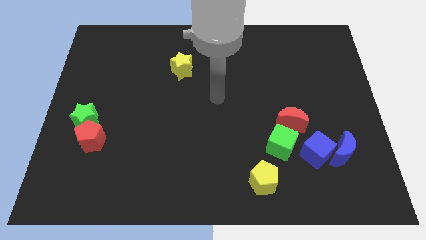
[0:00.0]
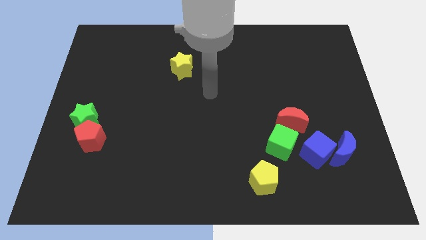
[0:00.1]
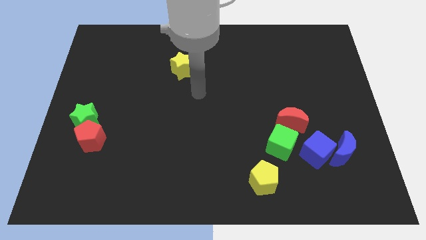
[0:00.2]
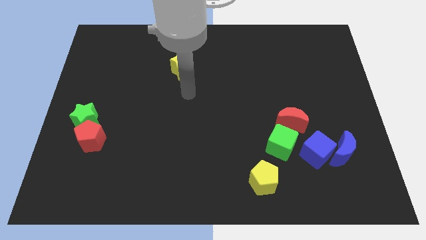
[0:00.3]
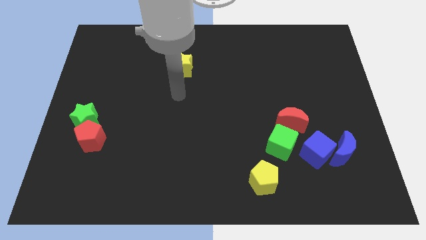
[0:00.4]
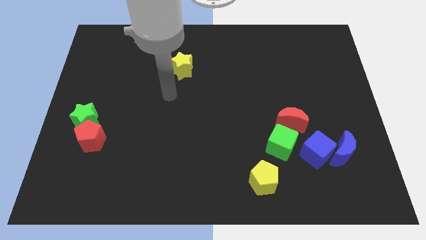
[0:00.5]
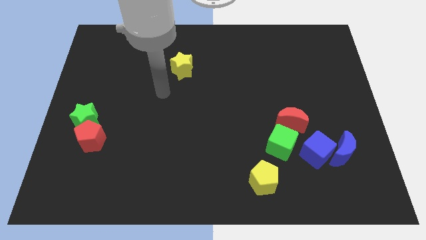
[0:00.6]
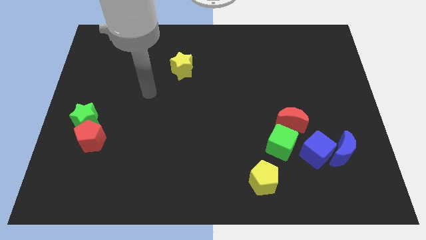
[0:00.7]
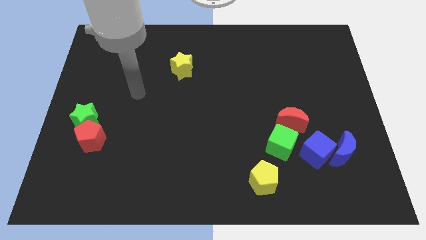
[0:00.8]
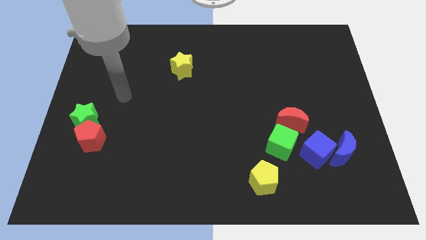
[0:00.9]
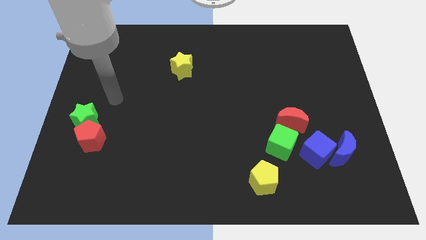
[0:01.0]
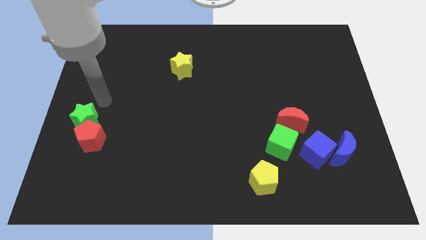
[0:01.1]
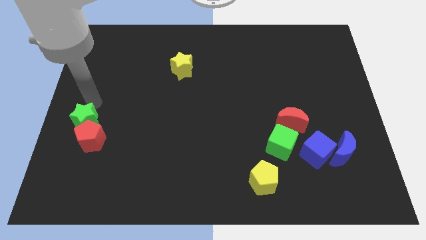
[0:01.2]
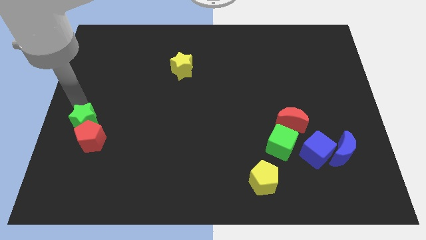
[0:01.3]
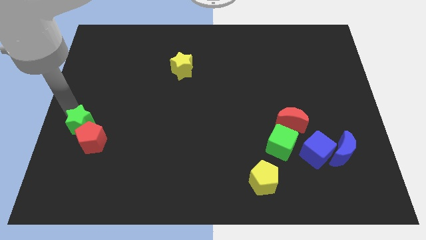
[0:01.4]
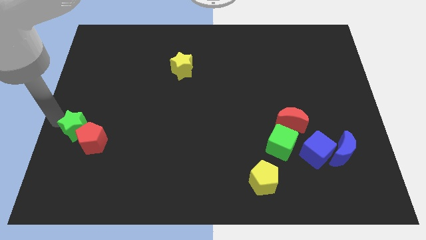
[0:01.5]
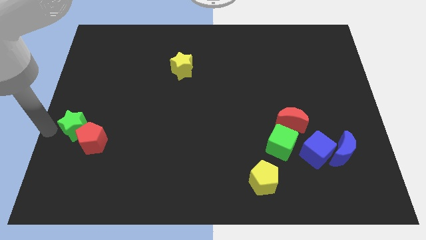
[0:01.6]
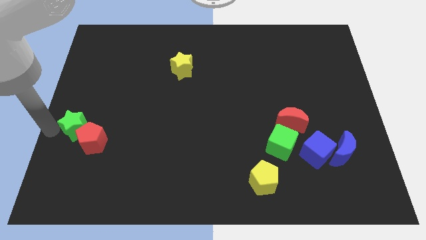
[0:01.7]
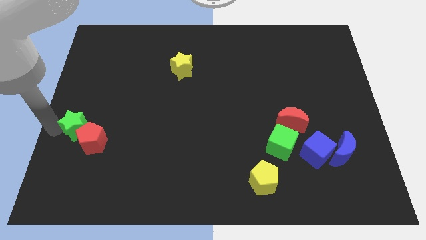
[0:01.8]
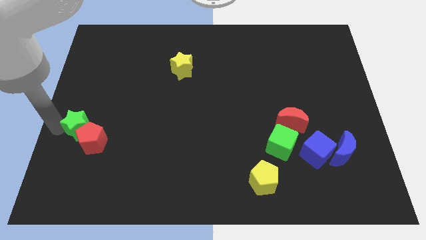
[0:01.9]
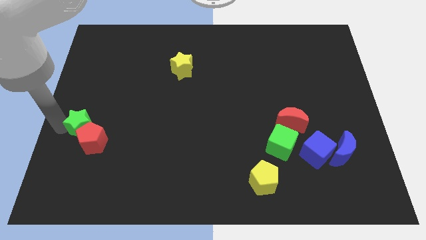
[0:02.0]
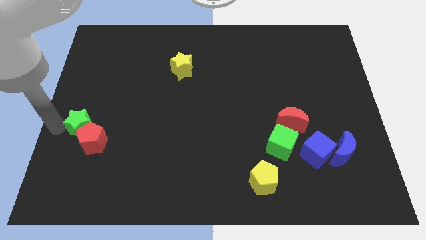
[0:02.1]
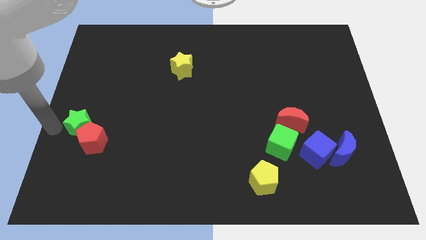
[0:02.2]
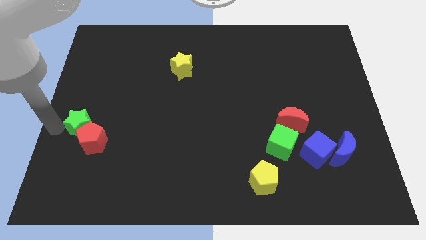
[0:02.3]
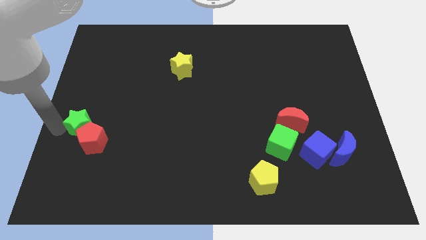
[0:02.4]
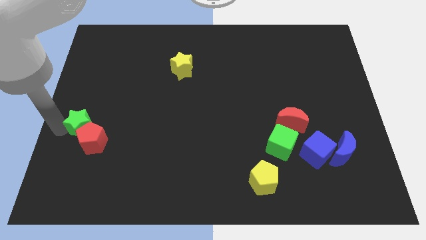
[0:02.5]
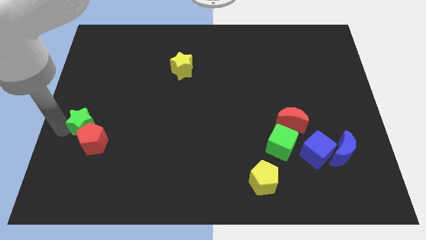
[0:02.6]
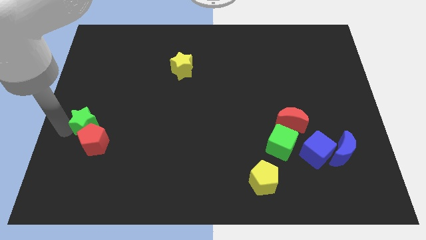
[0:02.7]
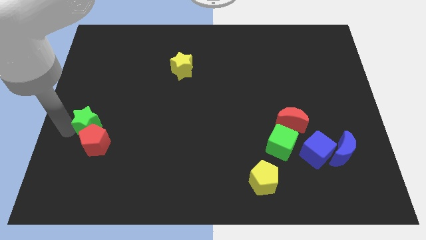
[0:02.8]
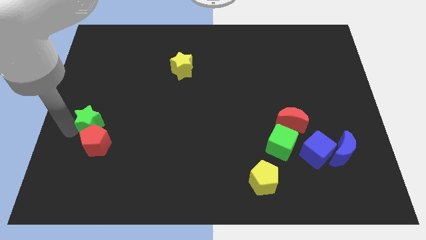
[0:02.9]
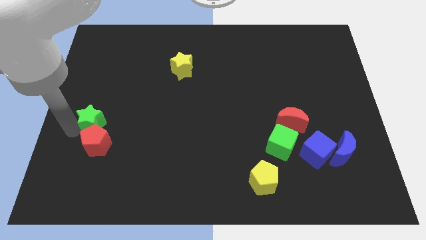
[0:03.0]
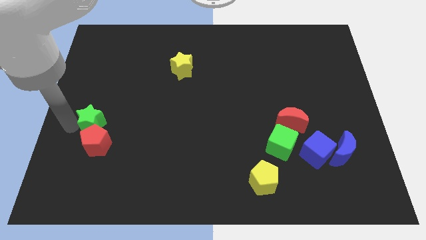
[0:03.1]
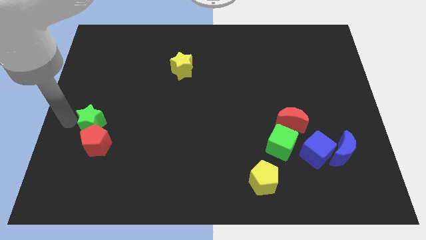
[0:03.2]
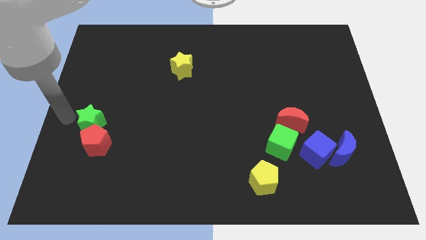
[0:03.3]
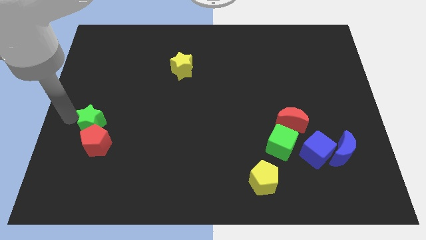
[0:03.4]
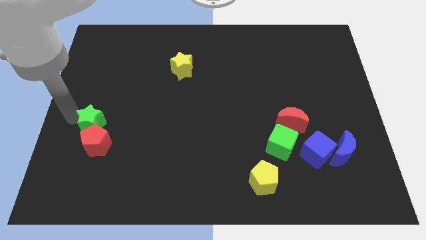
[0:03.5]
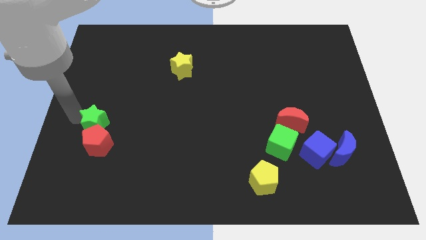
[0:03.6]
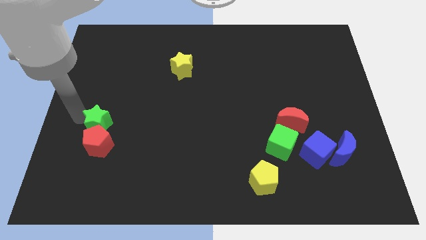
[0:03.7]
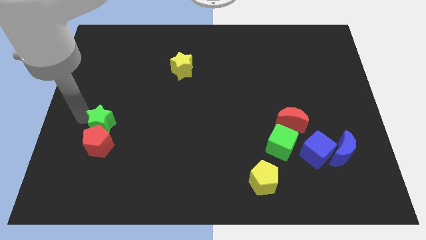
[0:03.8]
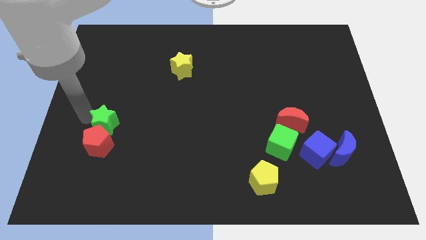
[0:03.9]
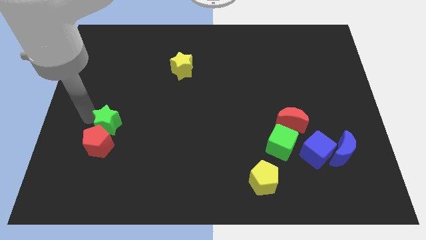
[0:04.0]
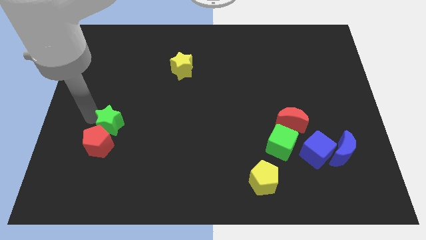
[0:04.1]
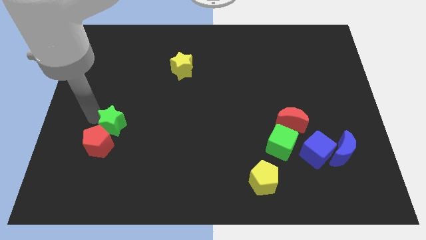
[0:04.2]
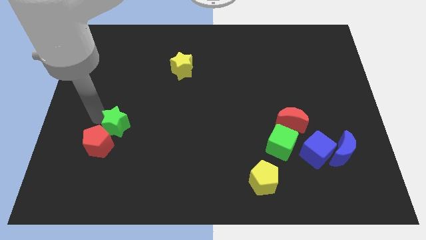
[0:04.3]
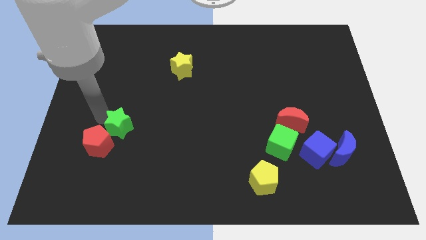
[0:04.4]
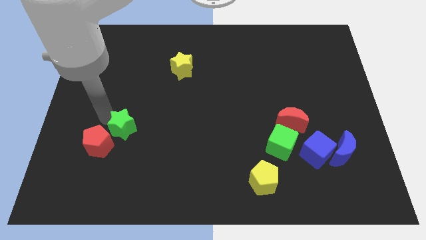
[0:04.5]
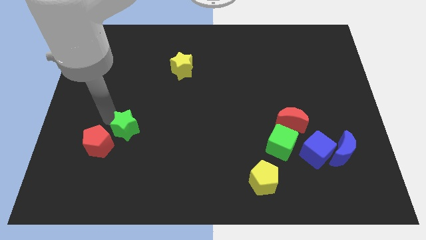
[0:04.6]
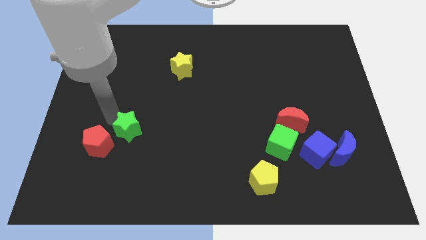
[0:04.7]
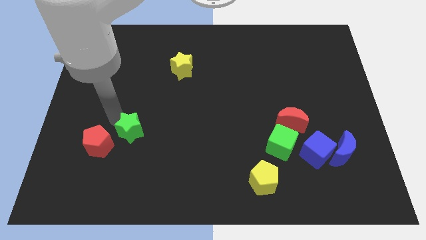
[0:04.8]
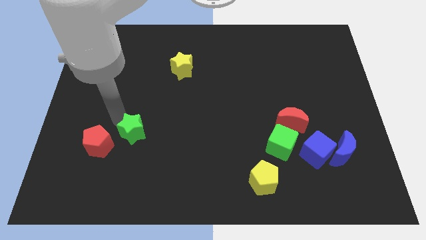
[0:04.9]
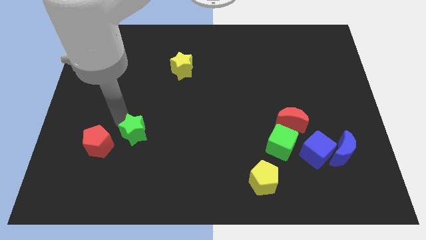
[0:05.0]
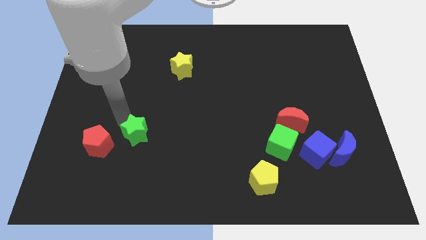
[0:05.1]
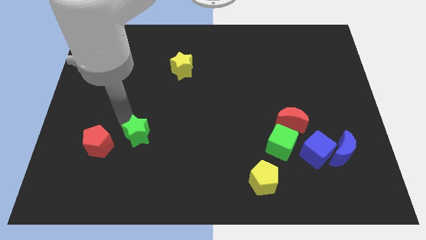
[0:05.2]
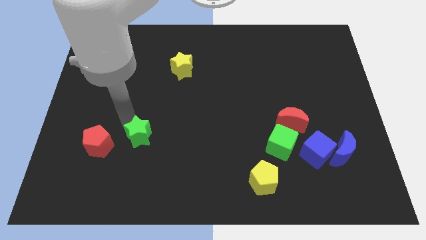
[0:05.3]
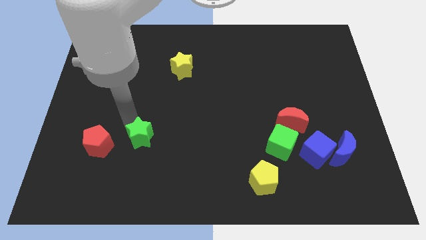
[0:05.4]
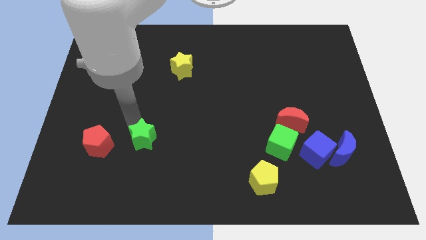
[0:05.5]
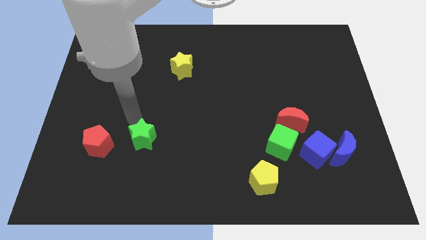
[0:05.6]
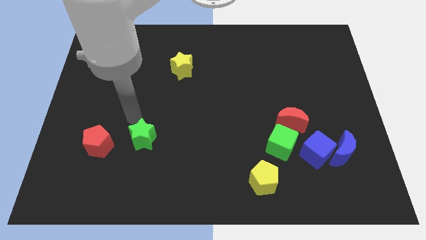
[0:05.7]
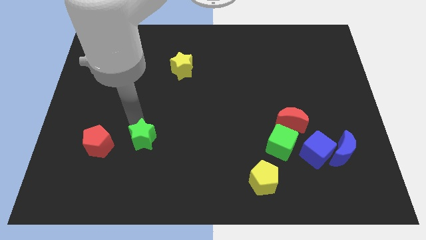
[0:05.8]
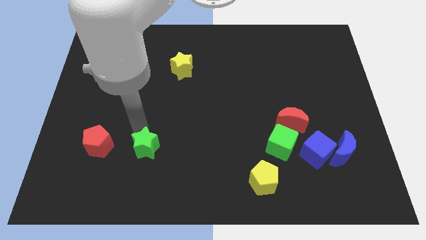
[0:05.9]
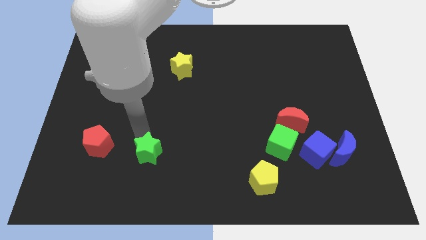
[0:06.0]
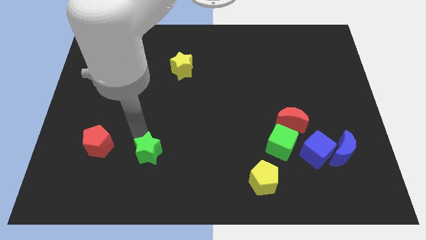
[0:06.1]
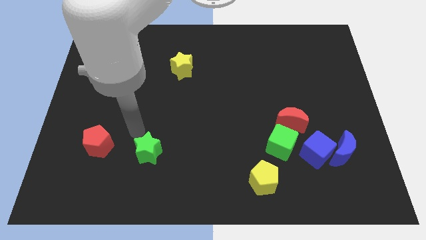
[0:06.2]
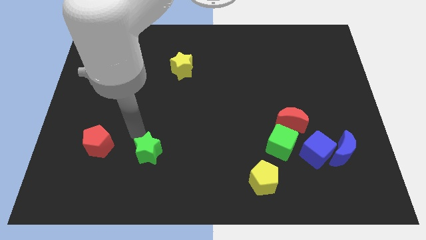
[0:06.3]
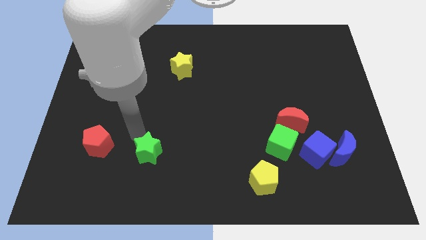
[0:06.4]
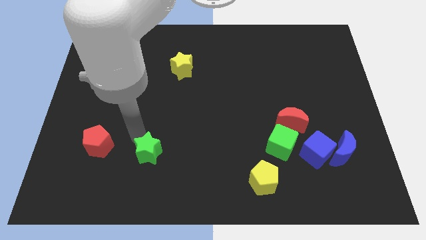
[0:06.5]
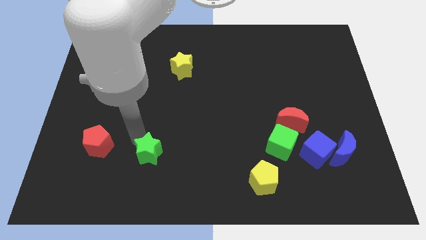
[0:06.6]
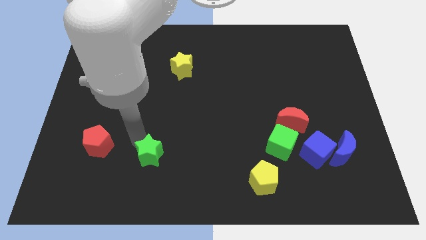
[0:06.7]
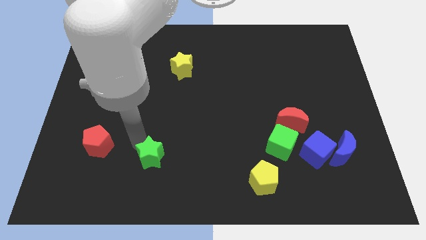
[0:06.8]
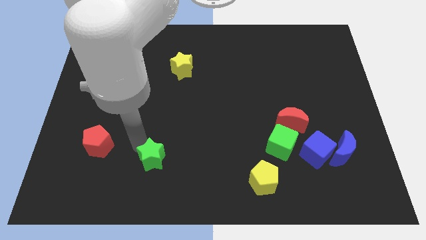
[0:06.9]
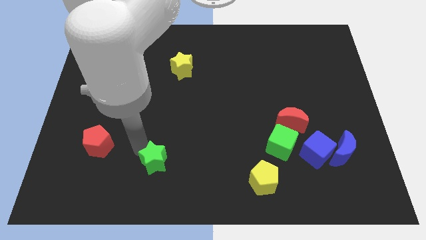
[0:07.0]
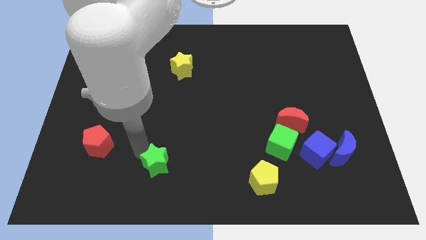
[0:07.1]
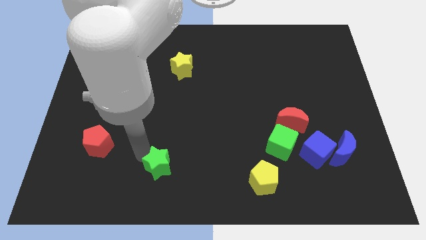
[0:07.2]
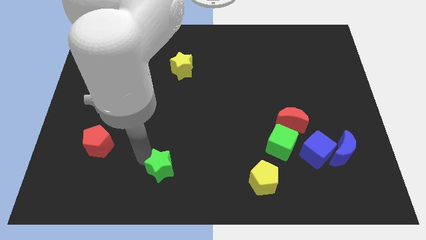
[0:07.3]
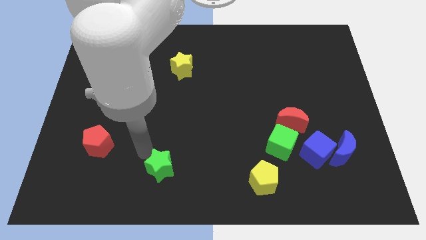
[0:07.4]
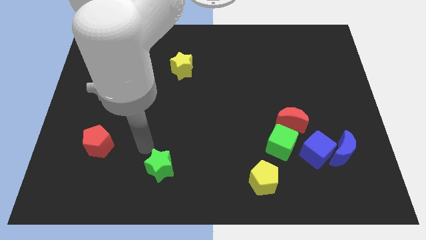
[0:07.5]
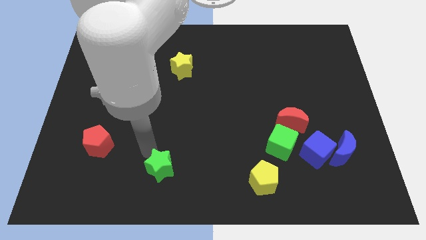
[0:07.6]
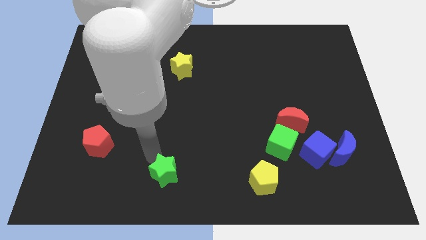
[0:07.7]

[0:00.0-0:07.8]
slide the green star to the bottom

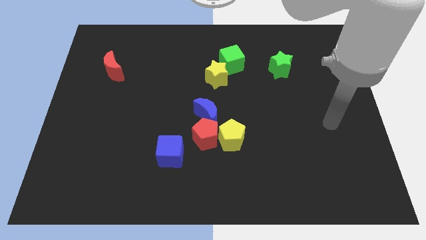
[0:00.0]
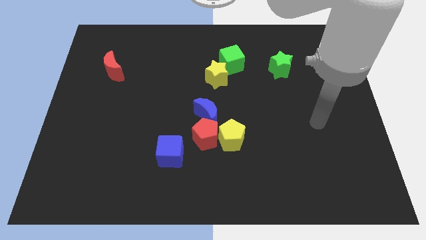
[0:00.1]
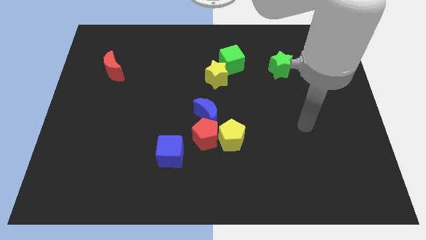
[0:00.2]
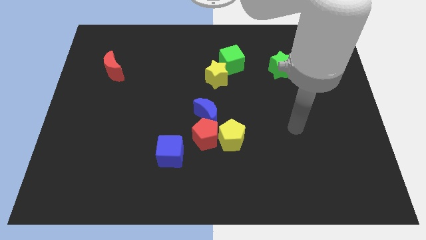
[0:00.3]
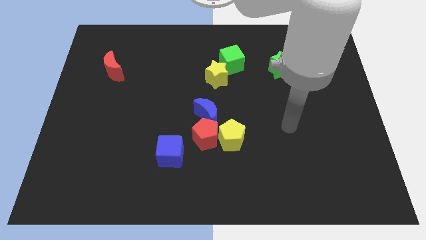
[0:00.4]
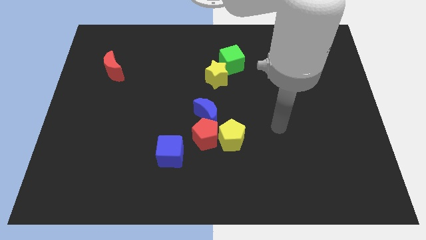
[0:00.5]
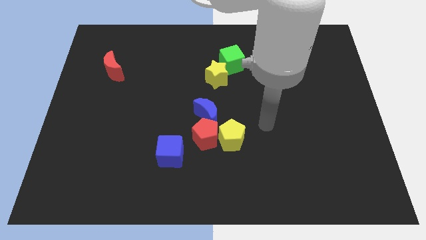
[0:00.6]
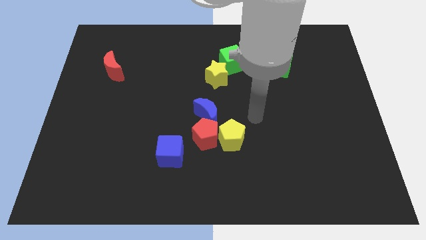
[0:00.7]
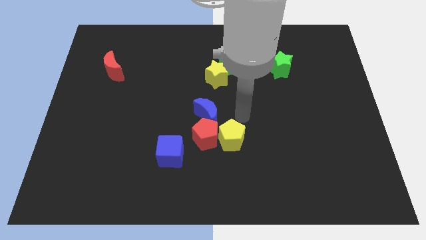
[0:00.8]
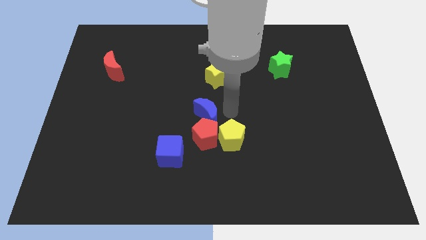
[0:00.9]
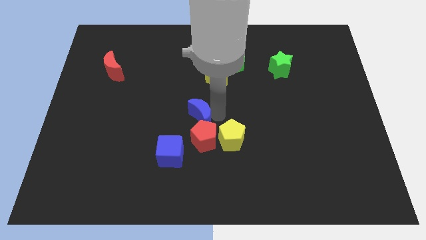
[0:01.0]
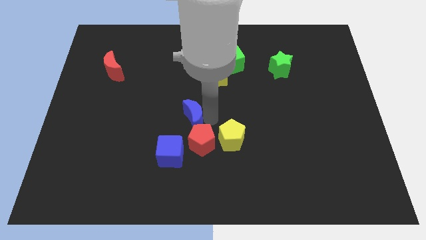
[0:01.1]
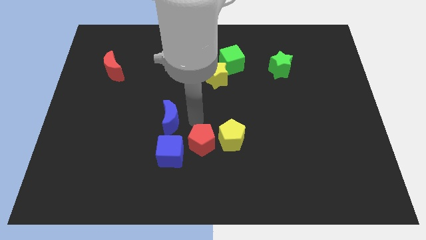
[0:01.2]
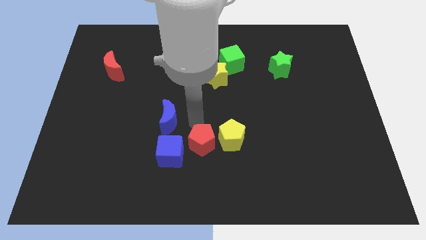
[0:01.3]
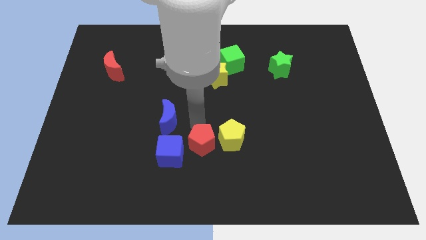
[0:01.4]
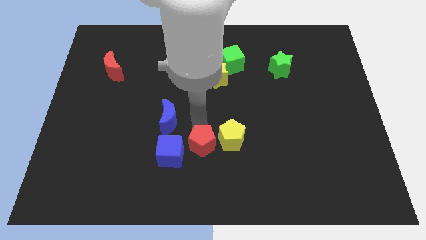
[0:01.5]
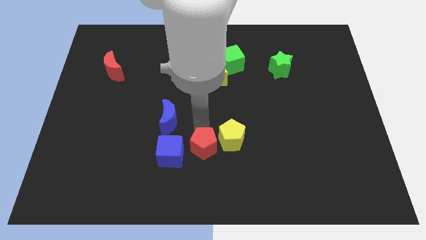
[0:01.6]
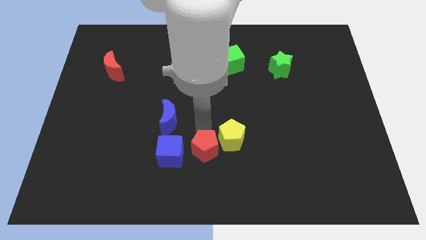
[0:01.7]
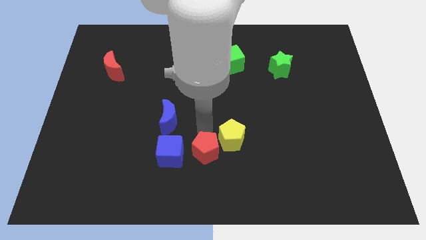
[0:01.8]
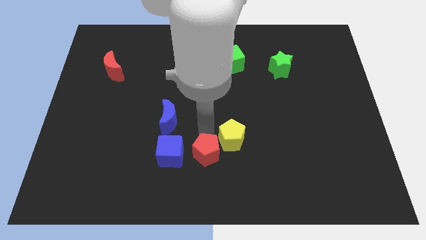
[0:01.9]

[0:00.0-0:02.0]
push the red pentagon to the bottom
